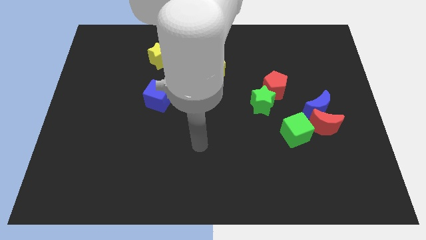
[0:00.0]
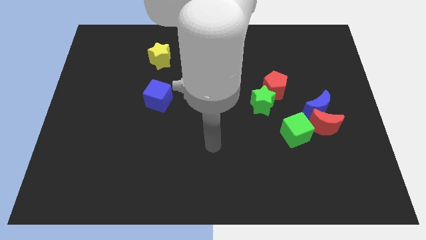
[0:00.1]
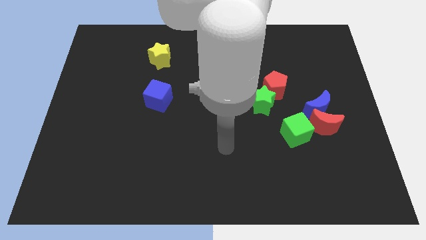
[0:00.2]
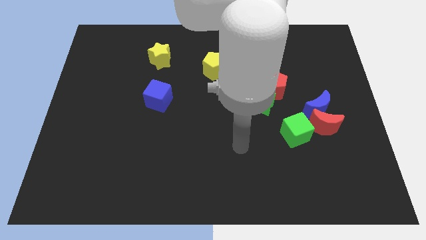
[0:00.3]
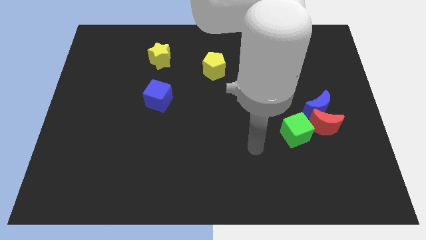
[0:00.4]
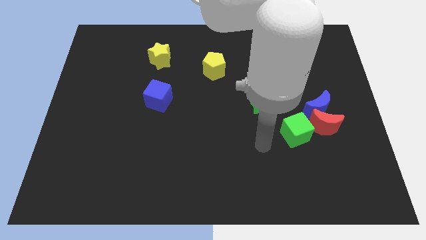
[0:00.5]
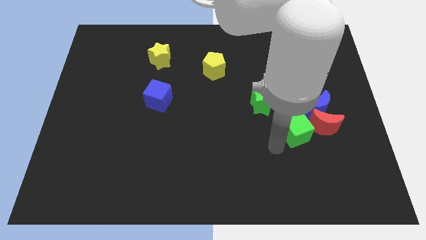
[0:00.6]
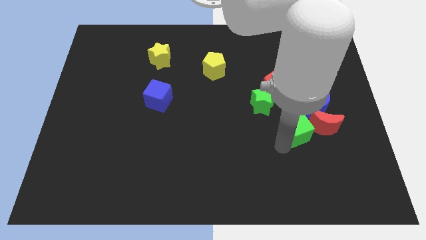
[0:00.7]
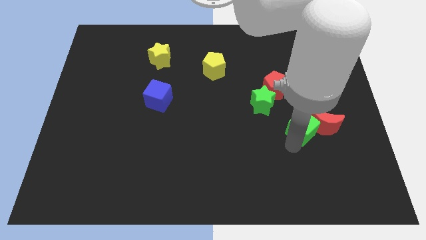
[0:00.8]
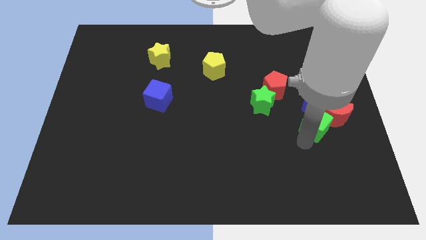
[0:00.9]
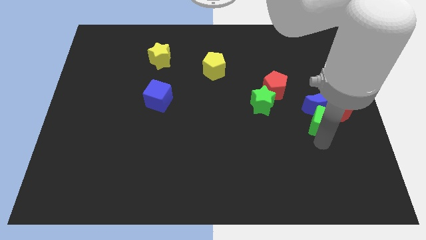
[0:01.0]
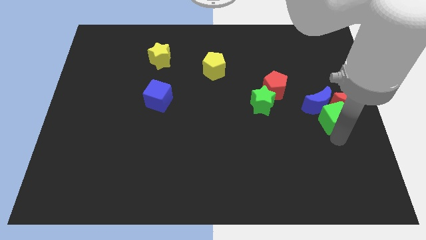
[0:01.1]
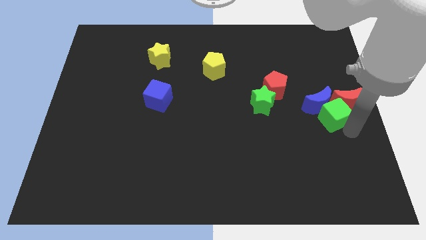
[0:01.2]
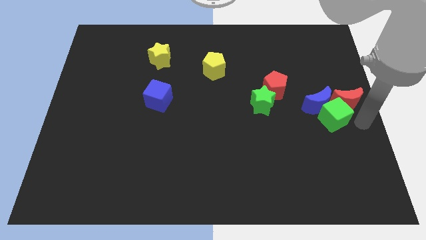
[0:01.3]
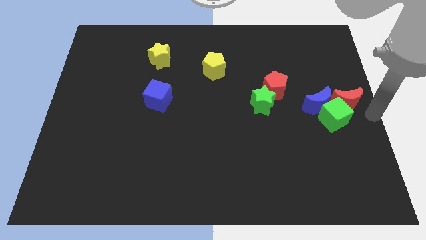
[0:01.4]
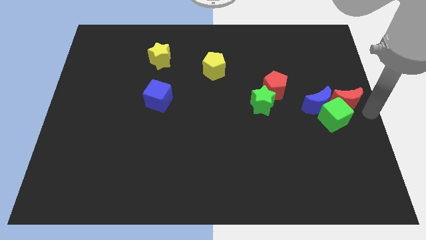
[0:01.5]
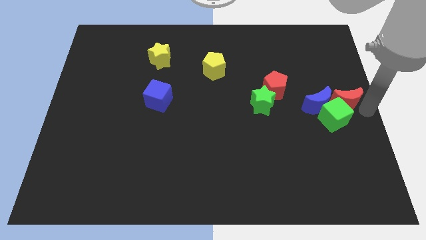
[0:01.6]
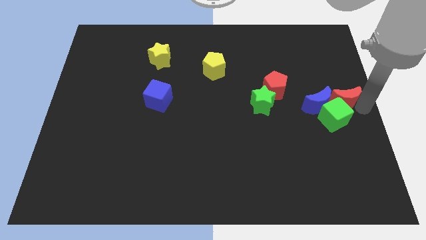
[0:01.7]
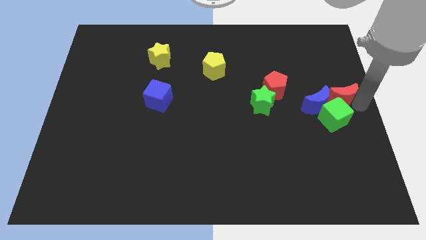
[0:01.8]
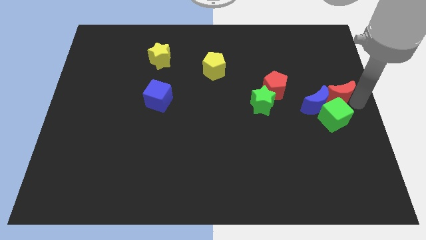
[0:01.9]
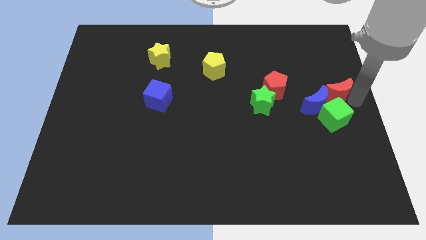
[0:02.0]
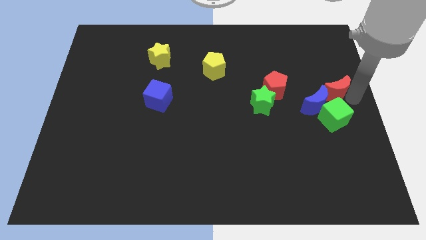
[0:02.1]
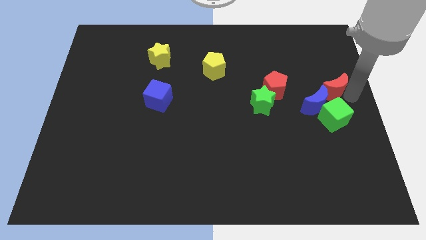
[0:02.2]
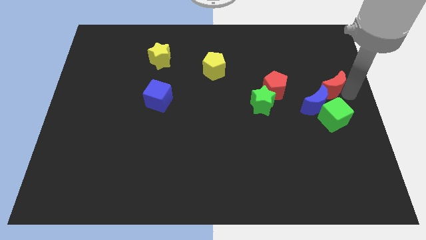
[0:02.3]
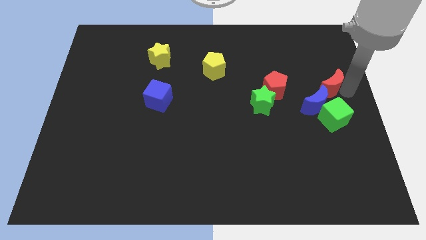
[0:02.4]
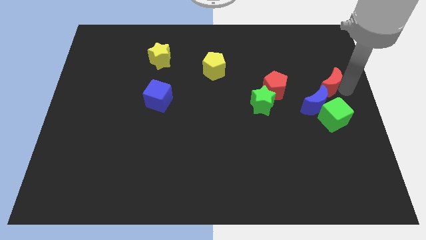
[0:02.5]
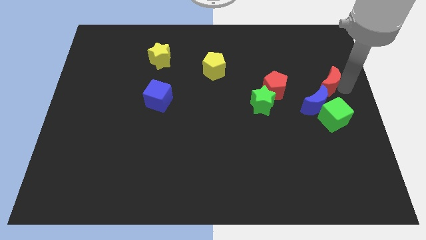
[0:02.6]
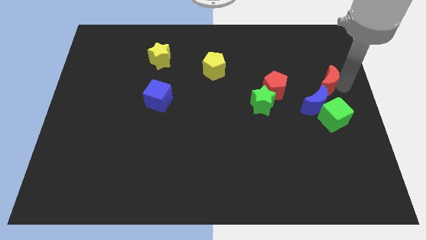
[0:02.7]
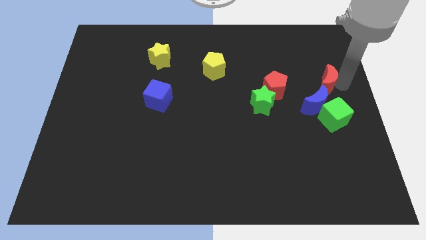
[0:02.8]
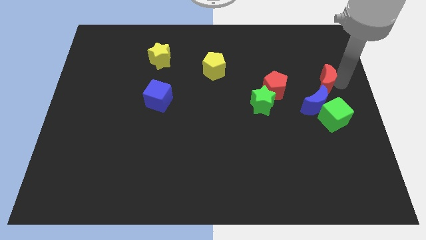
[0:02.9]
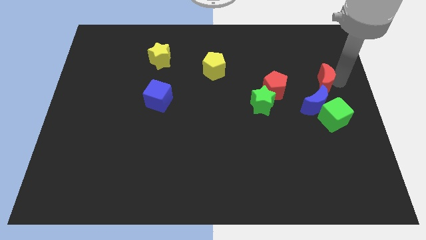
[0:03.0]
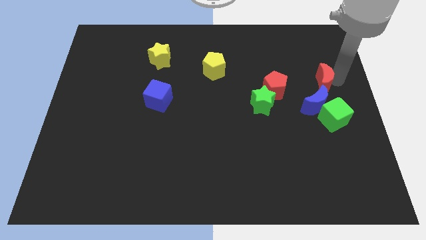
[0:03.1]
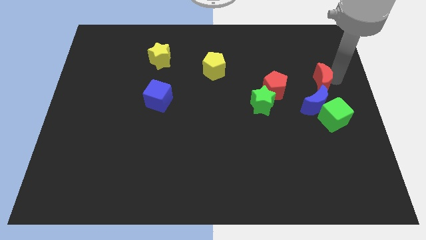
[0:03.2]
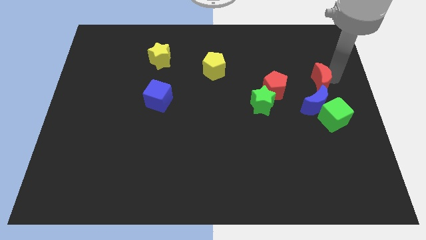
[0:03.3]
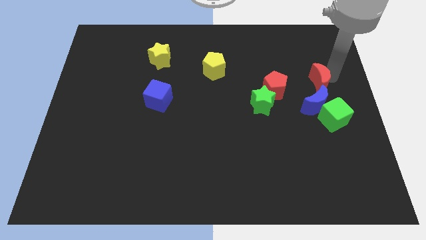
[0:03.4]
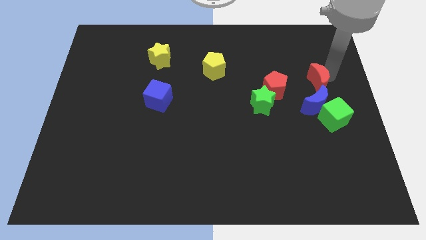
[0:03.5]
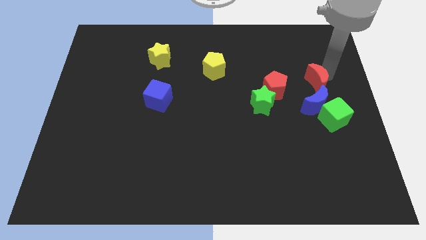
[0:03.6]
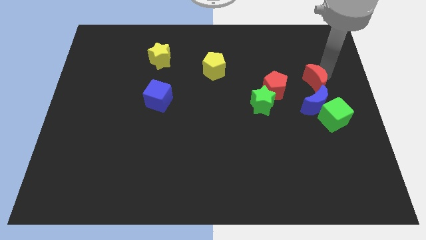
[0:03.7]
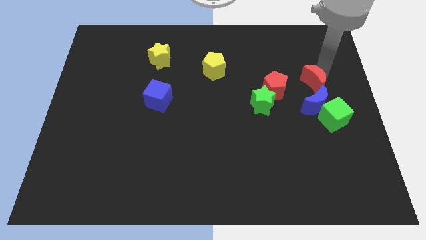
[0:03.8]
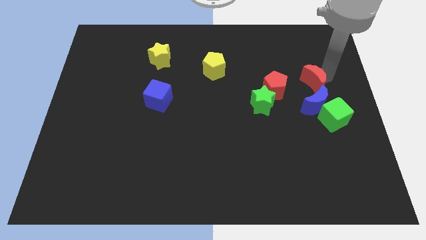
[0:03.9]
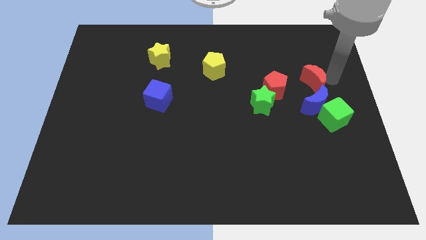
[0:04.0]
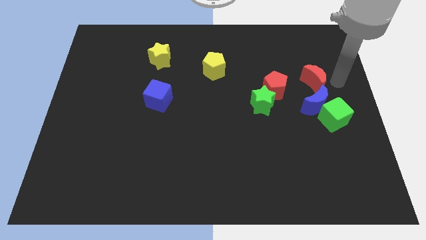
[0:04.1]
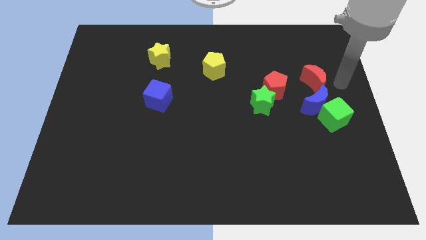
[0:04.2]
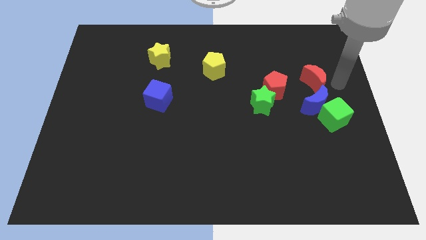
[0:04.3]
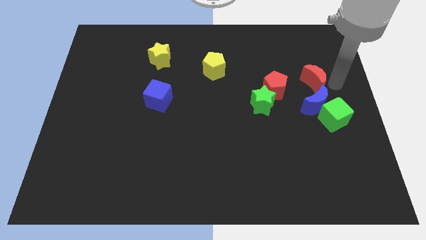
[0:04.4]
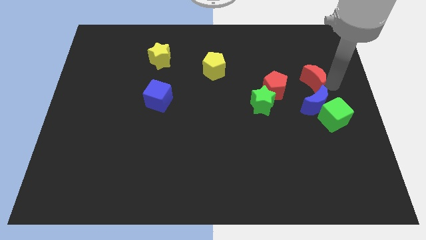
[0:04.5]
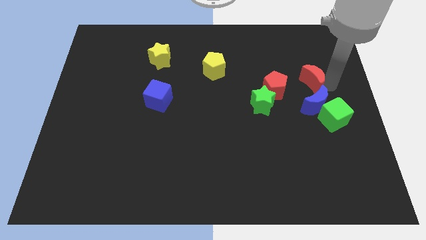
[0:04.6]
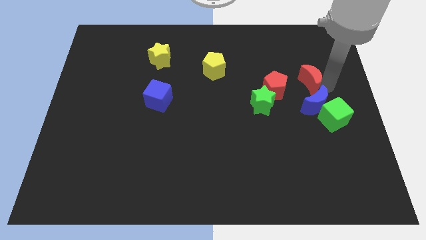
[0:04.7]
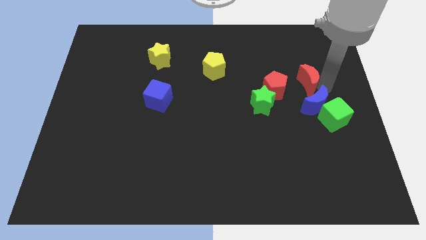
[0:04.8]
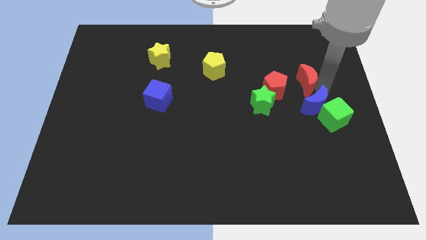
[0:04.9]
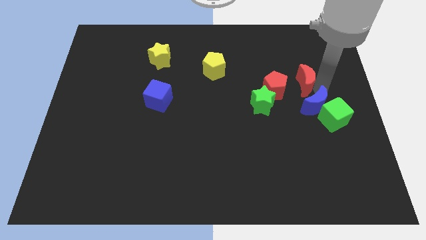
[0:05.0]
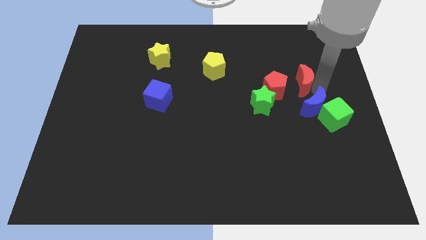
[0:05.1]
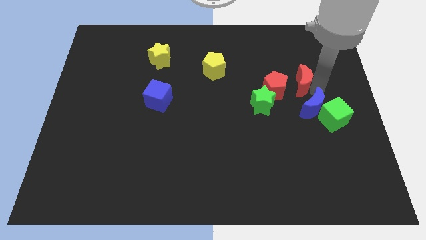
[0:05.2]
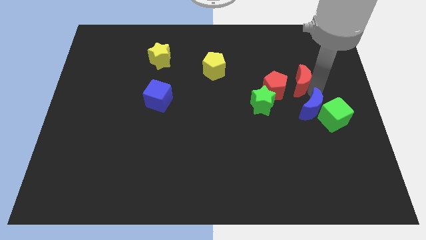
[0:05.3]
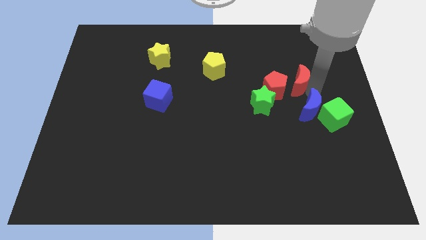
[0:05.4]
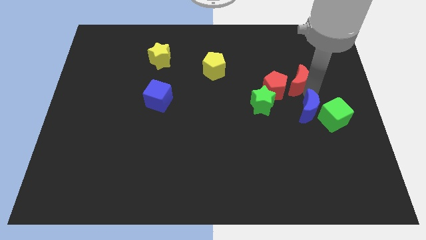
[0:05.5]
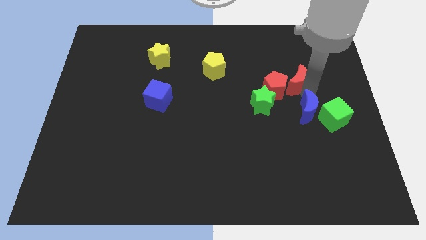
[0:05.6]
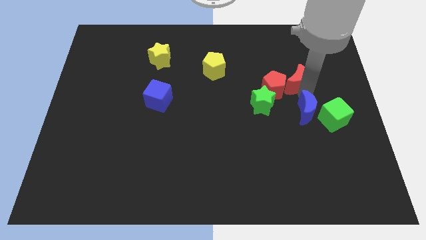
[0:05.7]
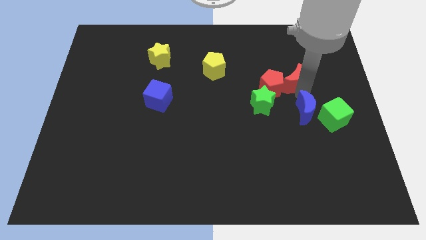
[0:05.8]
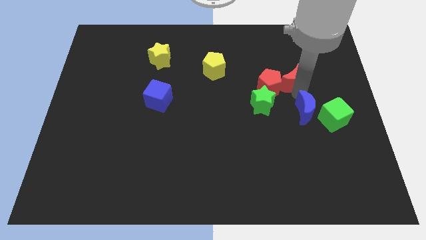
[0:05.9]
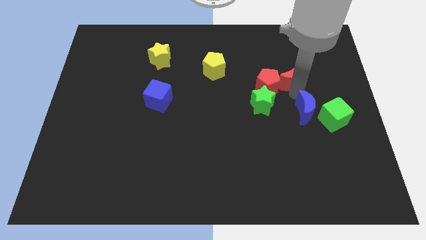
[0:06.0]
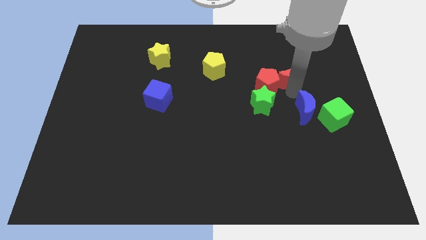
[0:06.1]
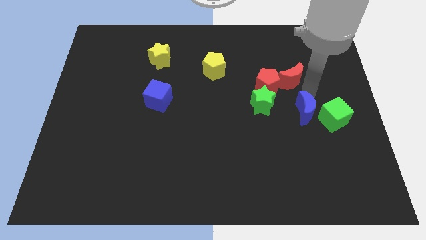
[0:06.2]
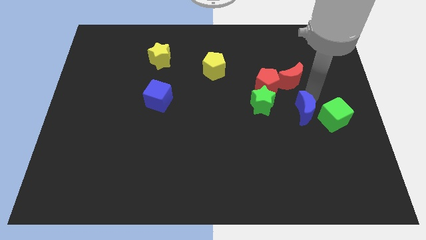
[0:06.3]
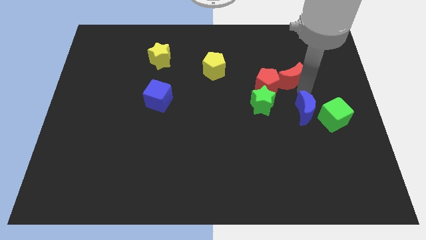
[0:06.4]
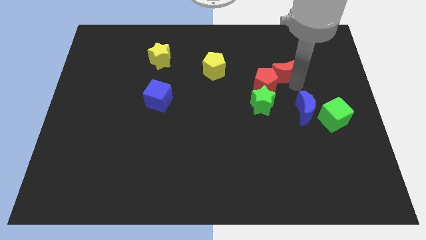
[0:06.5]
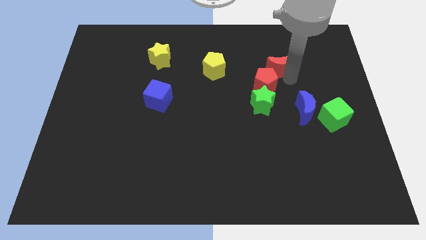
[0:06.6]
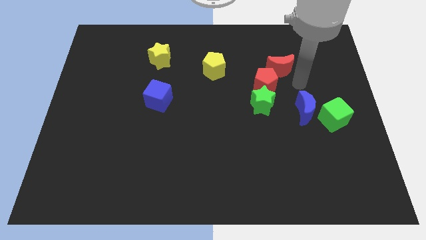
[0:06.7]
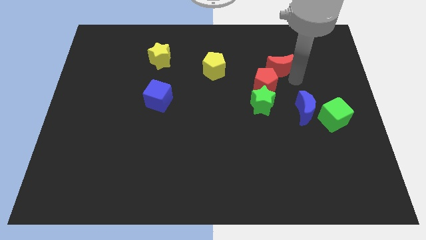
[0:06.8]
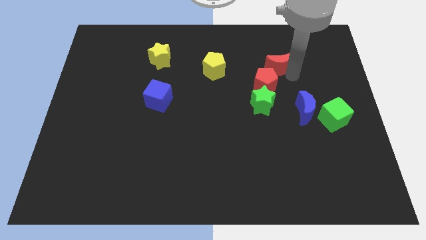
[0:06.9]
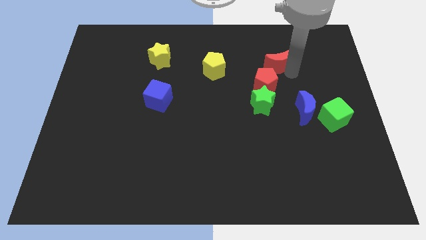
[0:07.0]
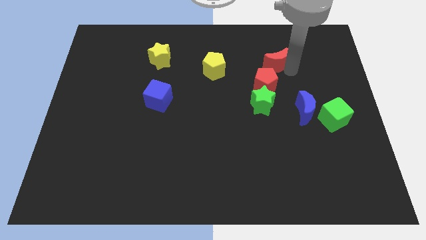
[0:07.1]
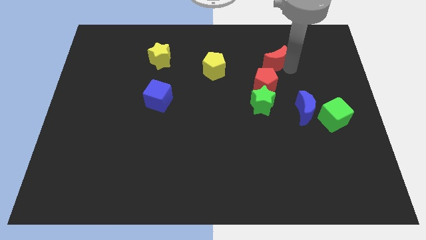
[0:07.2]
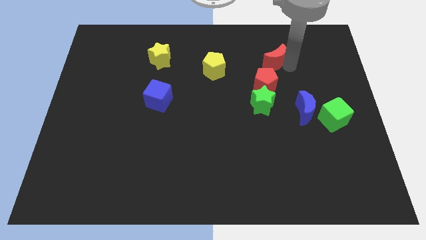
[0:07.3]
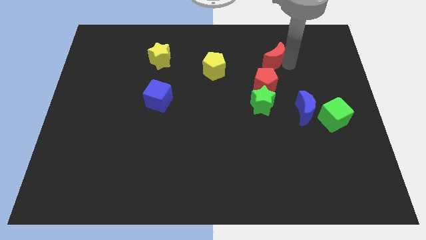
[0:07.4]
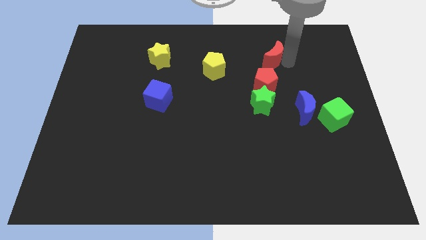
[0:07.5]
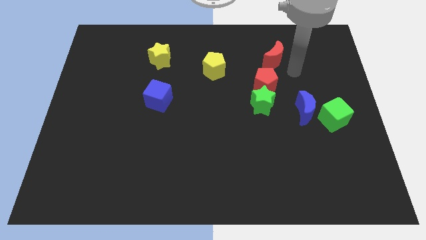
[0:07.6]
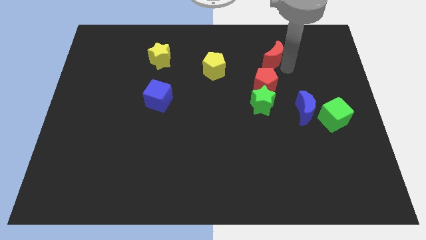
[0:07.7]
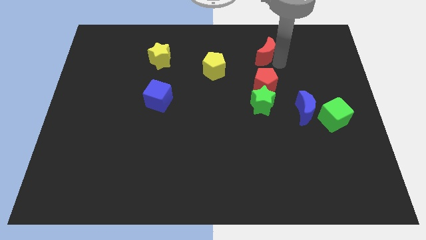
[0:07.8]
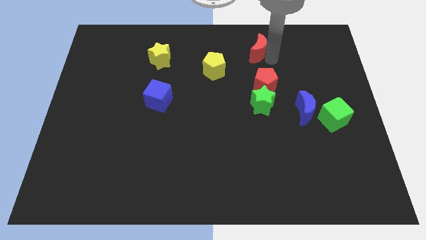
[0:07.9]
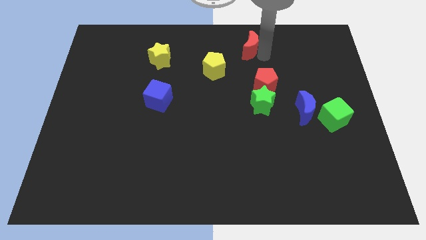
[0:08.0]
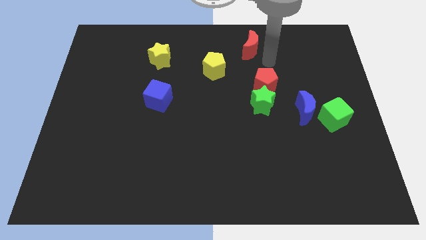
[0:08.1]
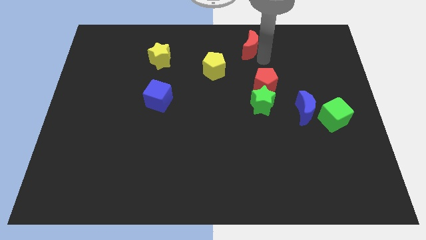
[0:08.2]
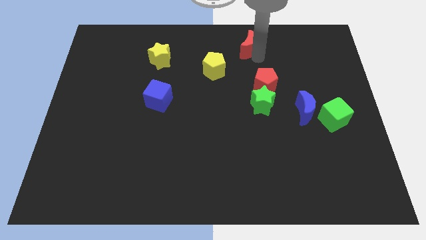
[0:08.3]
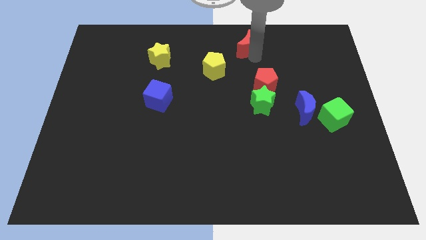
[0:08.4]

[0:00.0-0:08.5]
push the red moon to the top side
